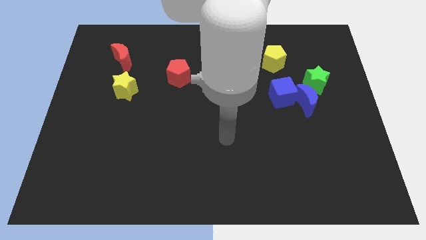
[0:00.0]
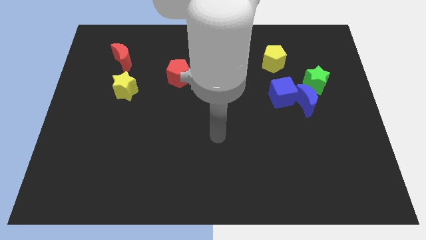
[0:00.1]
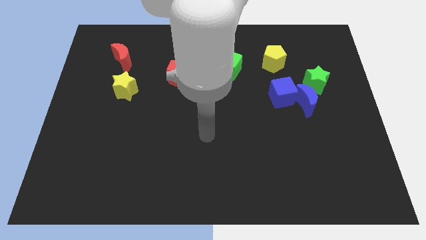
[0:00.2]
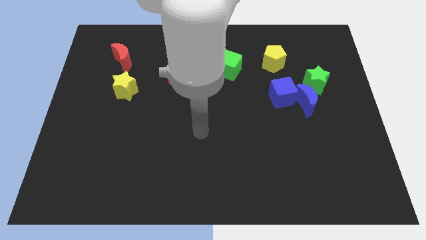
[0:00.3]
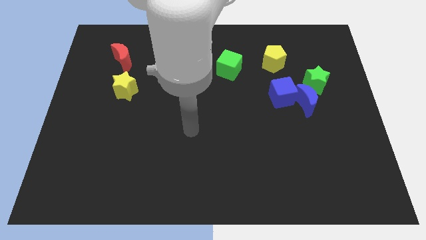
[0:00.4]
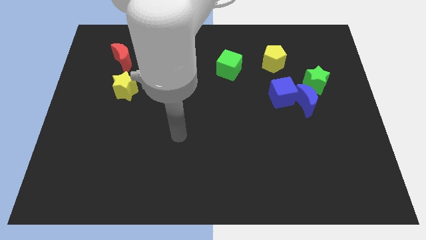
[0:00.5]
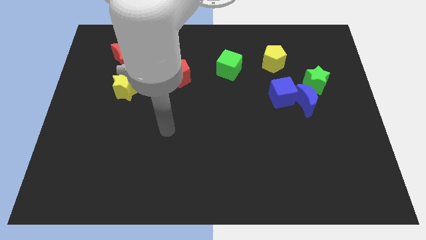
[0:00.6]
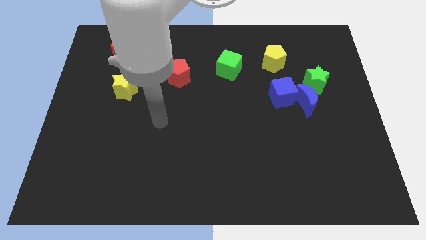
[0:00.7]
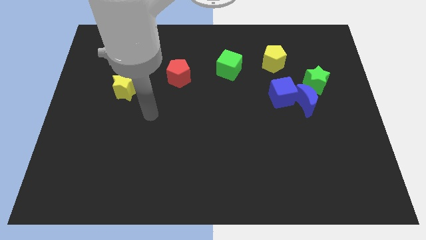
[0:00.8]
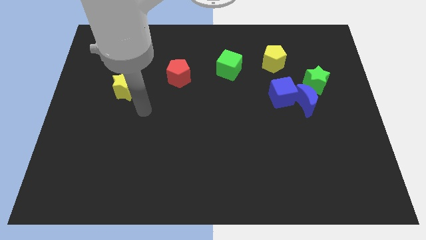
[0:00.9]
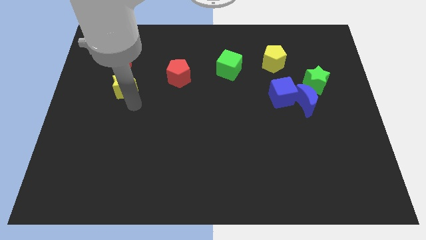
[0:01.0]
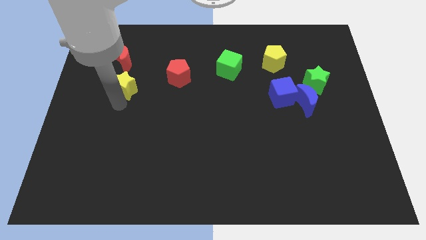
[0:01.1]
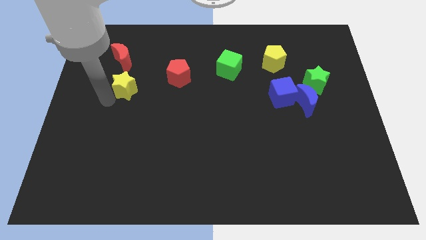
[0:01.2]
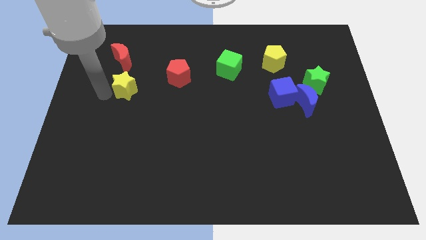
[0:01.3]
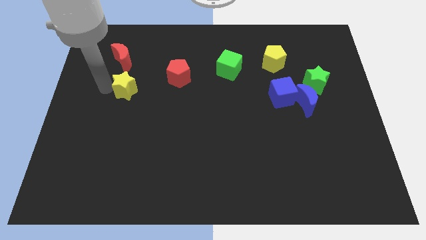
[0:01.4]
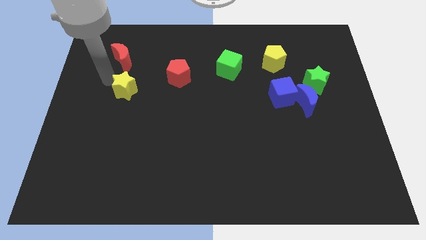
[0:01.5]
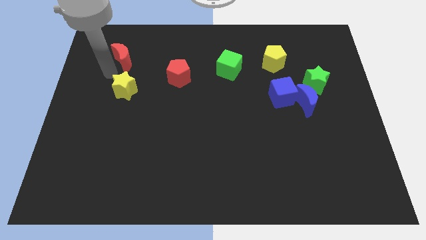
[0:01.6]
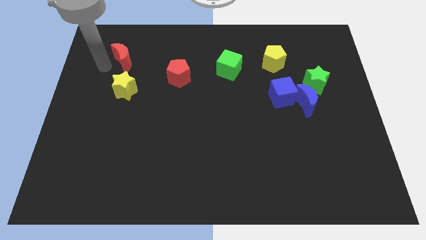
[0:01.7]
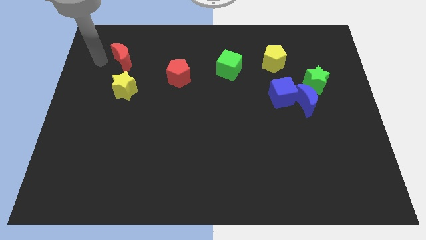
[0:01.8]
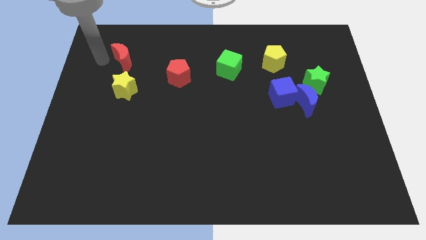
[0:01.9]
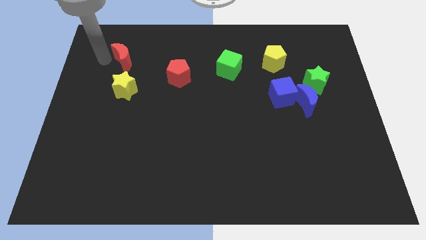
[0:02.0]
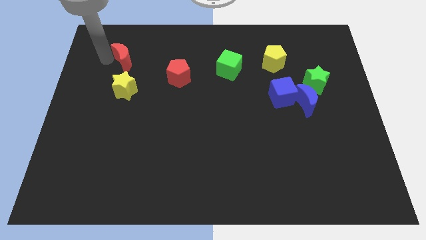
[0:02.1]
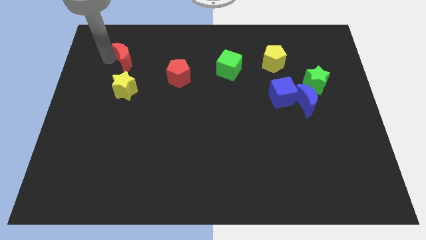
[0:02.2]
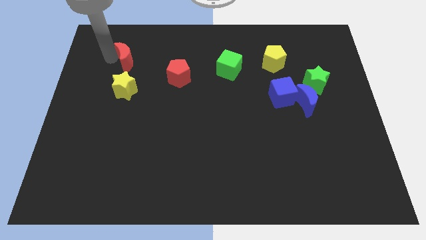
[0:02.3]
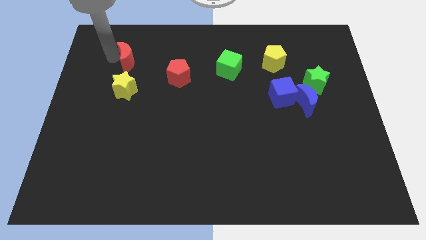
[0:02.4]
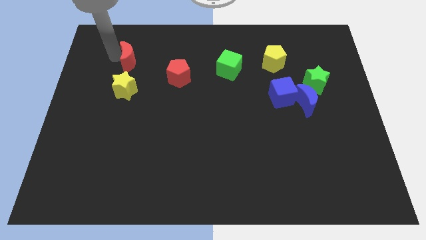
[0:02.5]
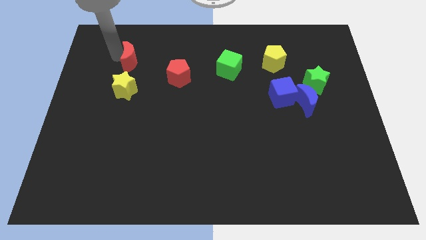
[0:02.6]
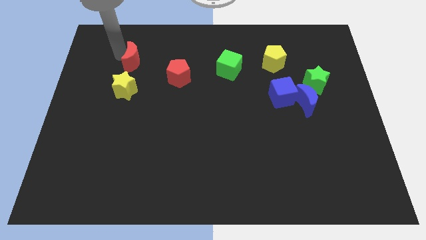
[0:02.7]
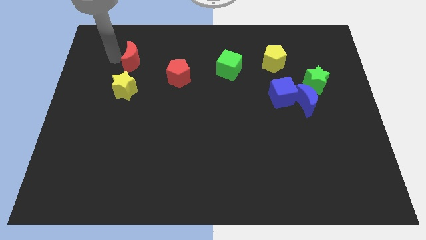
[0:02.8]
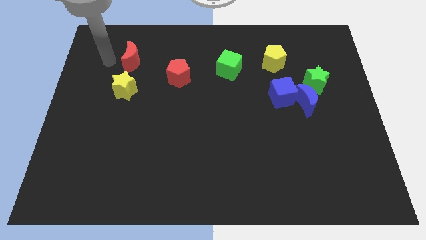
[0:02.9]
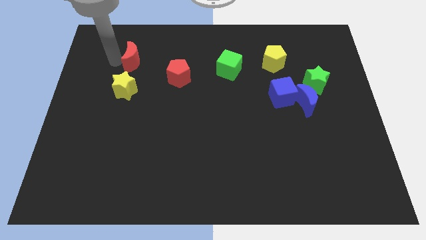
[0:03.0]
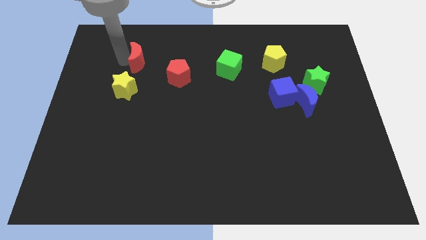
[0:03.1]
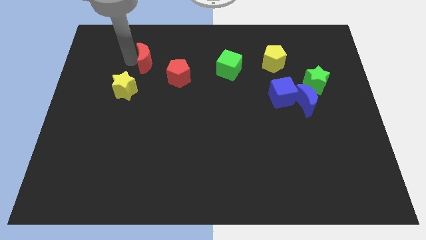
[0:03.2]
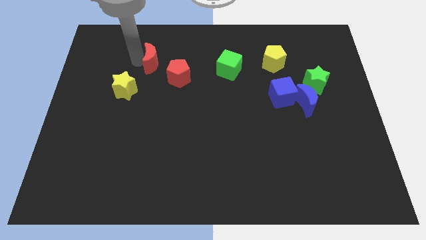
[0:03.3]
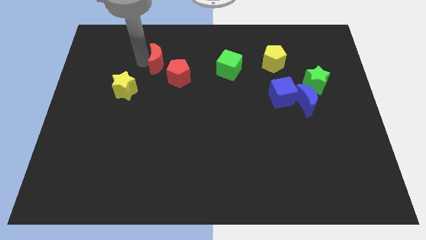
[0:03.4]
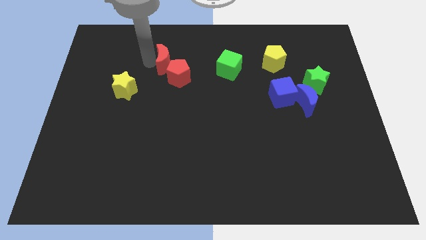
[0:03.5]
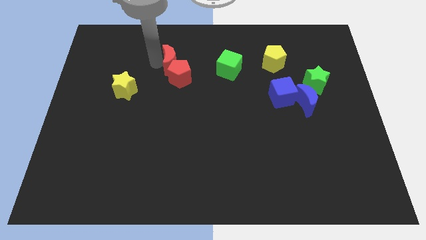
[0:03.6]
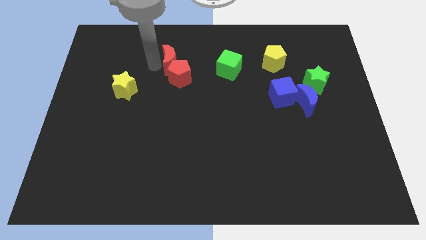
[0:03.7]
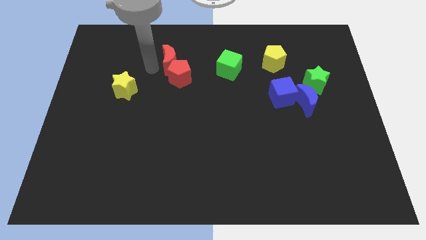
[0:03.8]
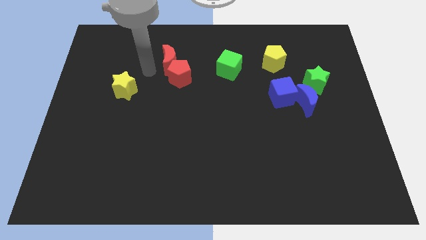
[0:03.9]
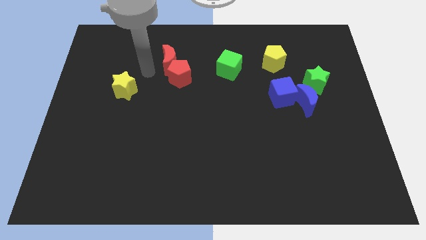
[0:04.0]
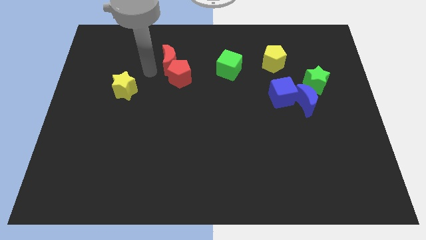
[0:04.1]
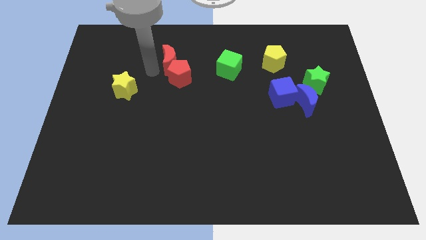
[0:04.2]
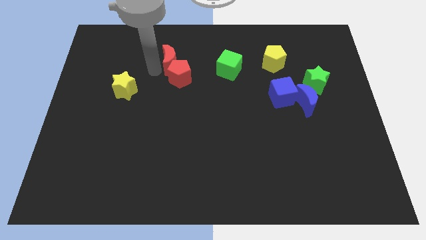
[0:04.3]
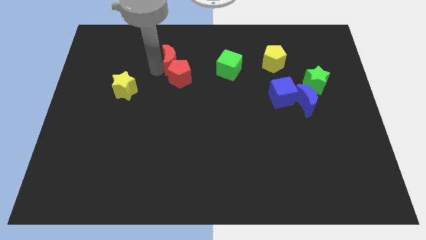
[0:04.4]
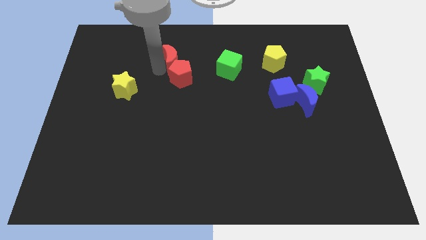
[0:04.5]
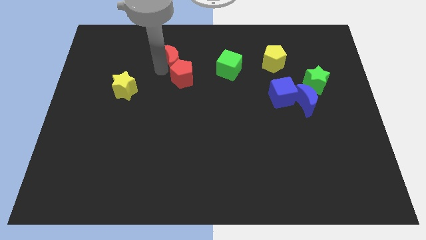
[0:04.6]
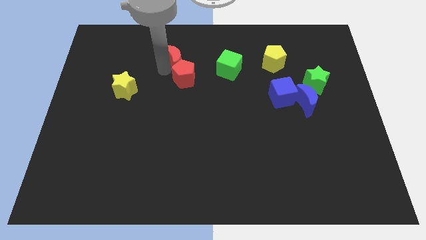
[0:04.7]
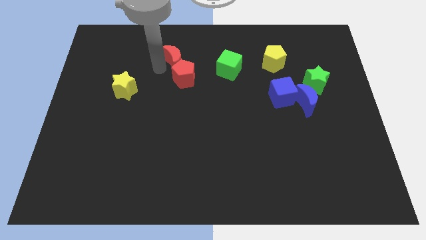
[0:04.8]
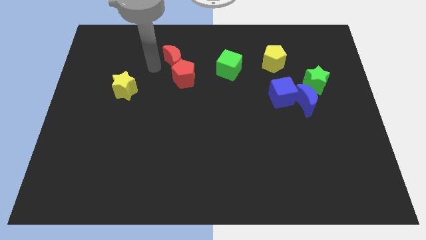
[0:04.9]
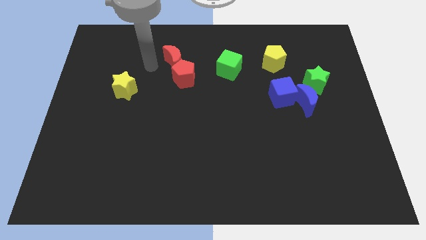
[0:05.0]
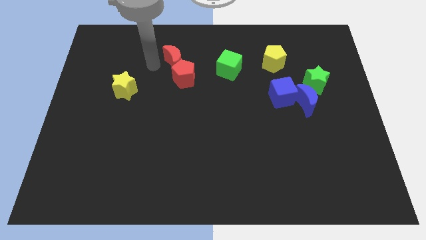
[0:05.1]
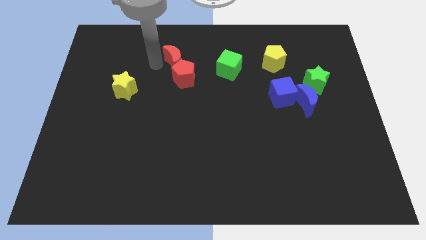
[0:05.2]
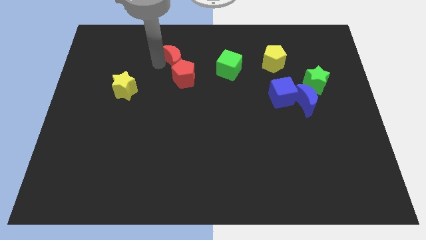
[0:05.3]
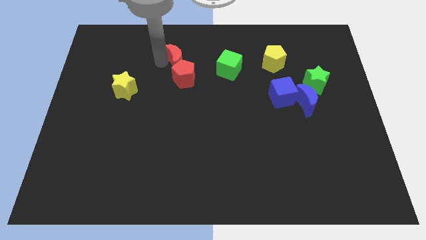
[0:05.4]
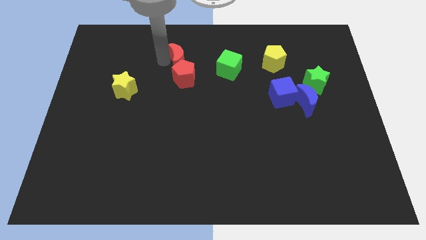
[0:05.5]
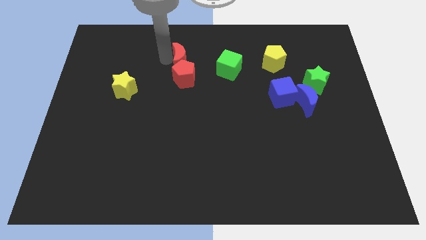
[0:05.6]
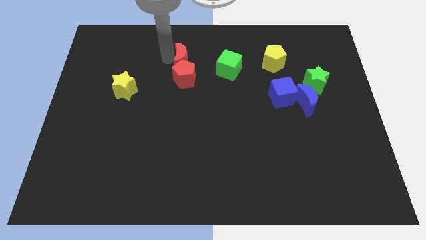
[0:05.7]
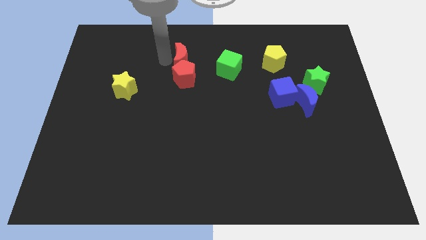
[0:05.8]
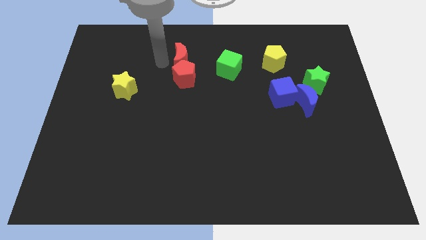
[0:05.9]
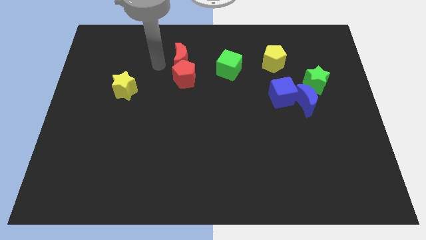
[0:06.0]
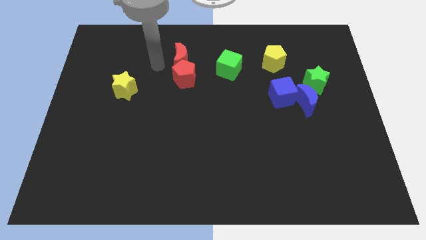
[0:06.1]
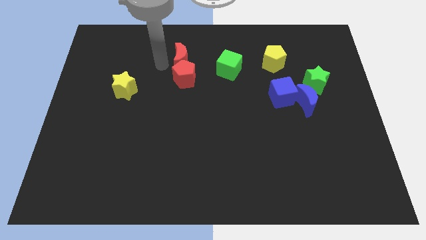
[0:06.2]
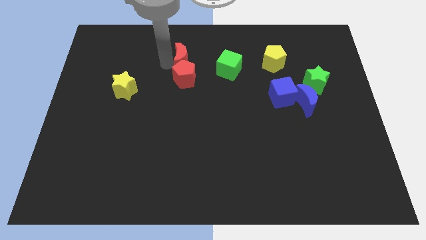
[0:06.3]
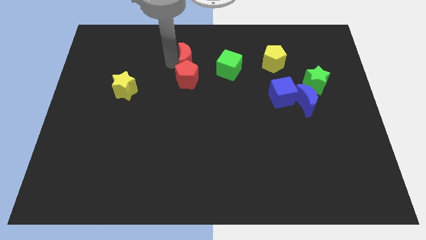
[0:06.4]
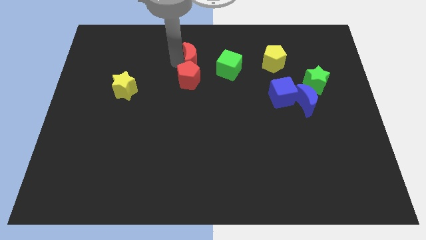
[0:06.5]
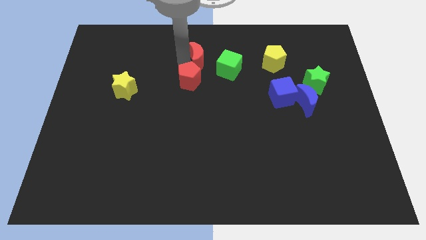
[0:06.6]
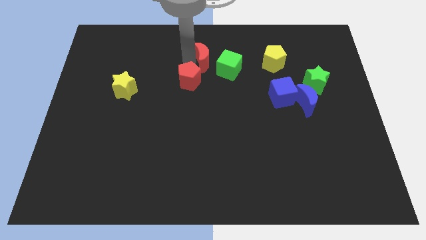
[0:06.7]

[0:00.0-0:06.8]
push the red moon to the right

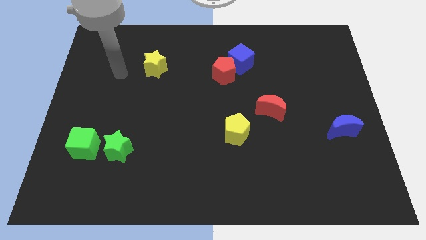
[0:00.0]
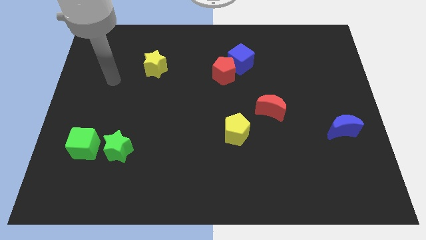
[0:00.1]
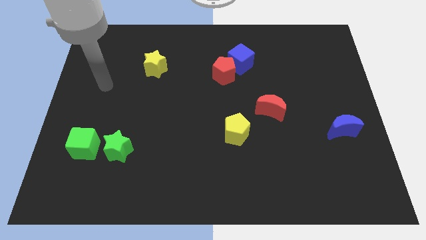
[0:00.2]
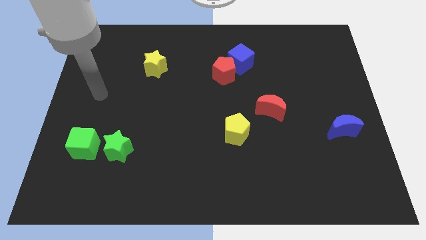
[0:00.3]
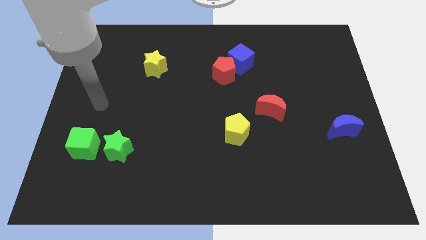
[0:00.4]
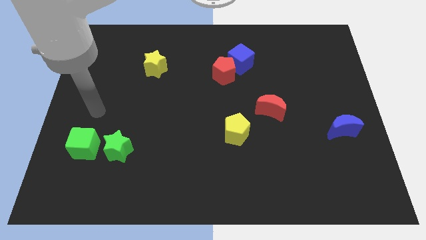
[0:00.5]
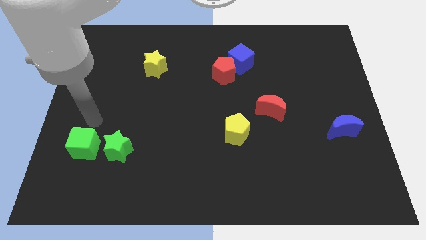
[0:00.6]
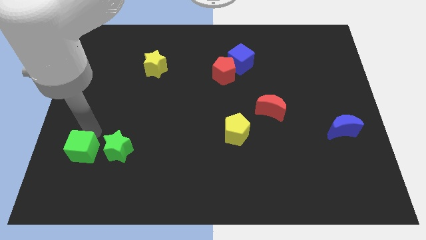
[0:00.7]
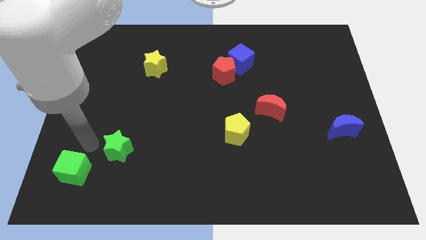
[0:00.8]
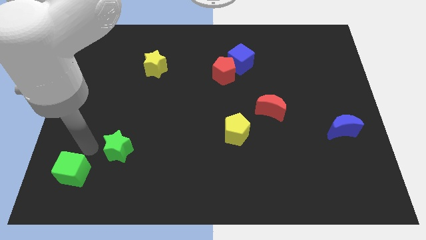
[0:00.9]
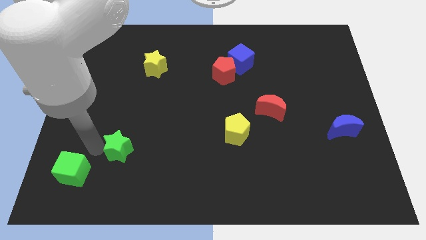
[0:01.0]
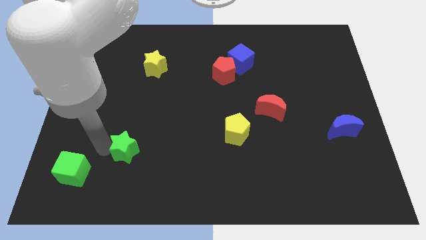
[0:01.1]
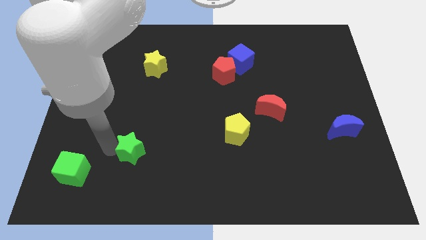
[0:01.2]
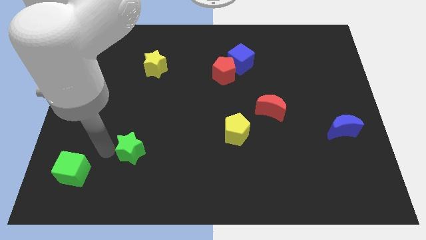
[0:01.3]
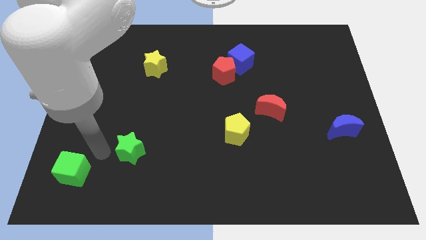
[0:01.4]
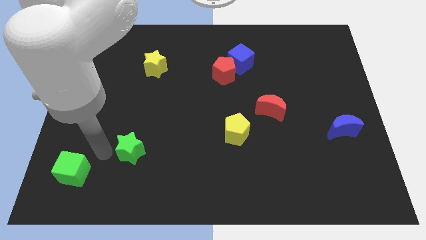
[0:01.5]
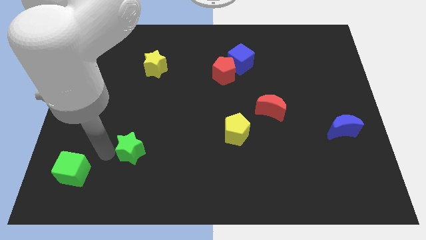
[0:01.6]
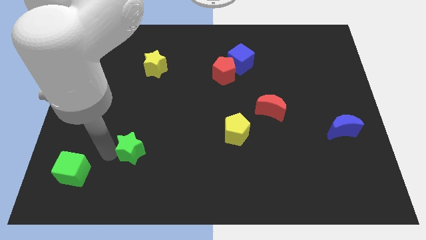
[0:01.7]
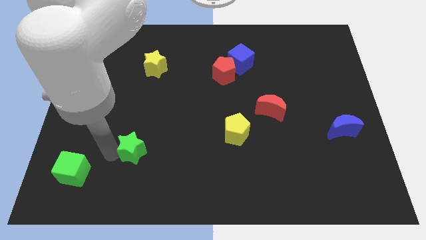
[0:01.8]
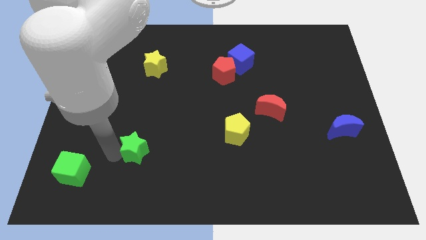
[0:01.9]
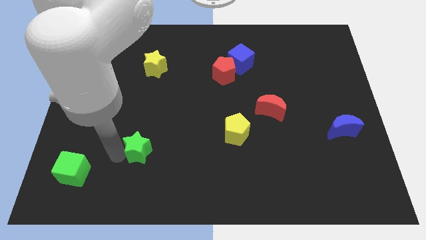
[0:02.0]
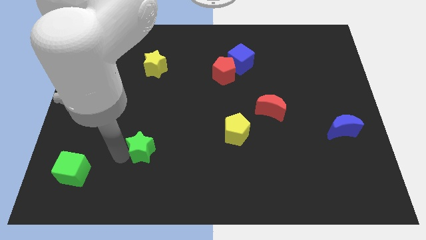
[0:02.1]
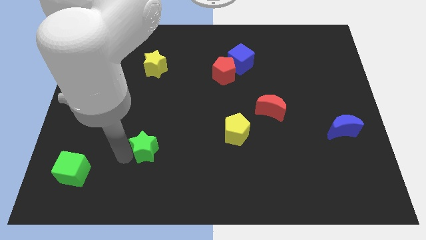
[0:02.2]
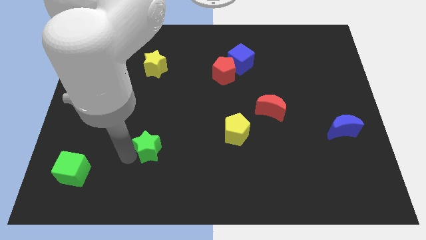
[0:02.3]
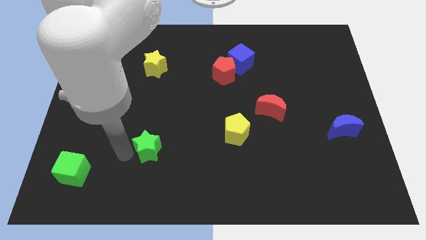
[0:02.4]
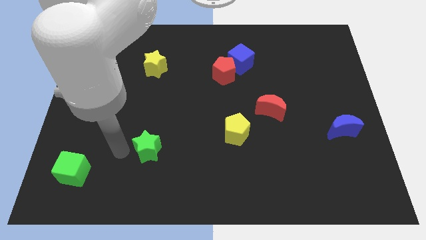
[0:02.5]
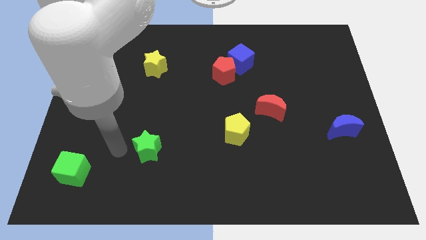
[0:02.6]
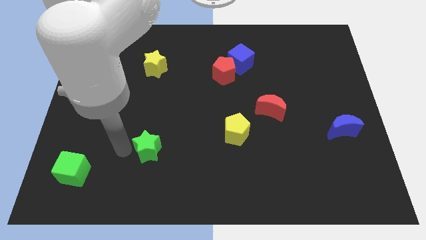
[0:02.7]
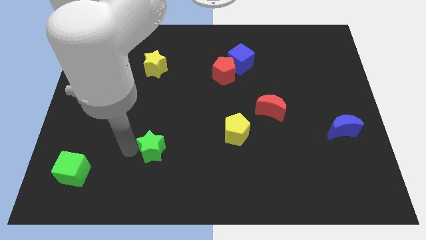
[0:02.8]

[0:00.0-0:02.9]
slide the green star to the right somewhat
